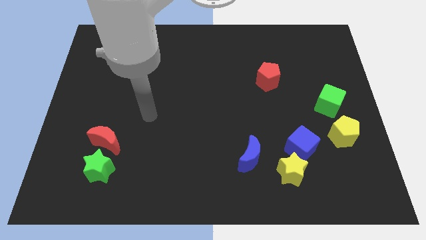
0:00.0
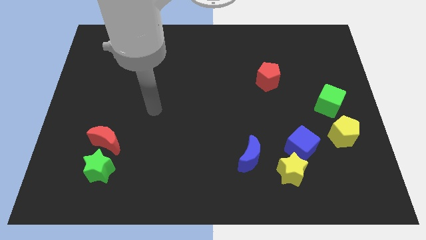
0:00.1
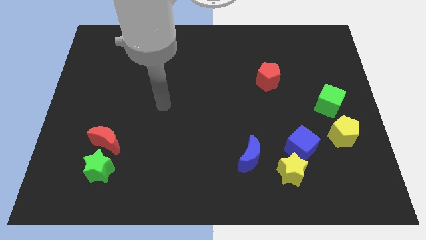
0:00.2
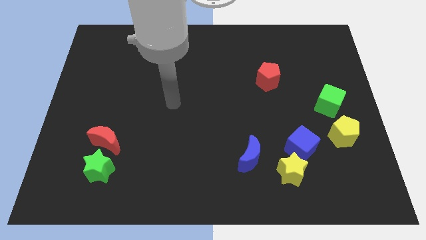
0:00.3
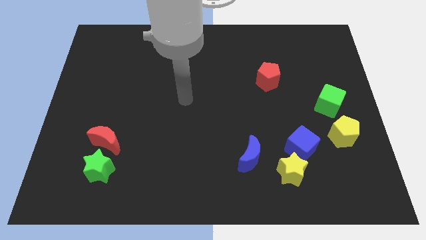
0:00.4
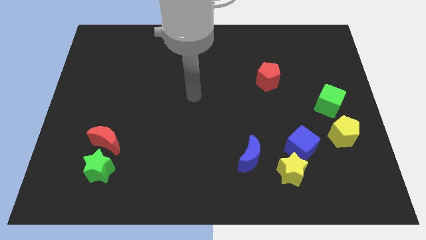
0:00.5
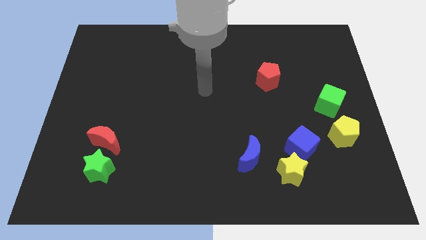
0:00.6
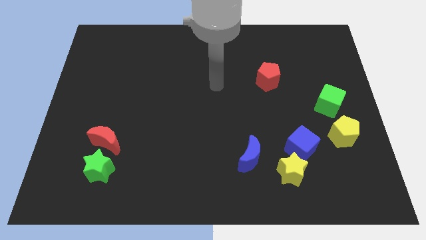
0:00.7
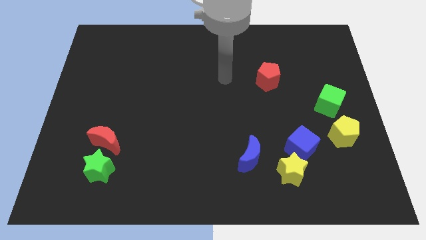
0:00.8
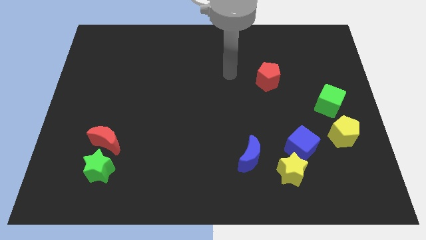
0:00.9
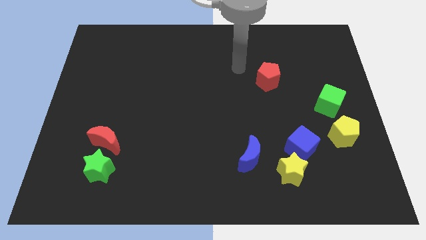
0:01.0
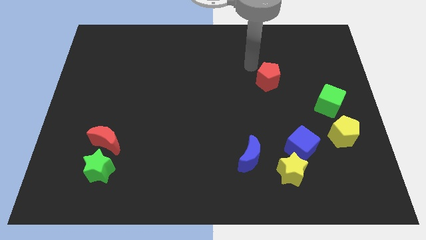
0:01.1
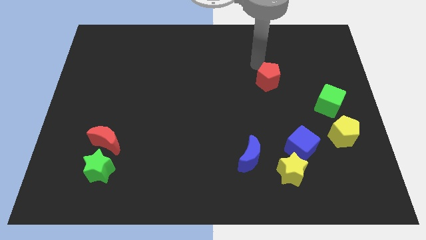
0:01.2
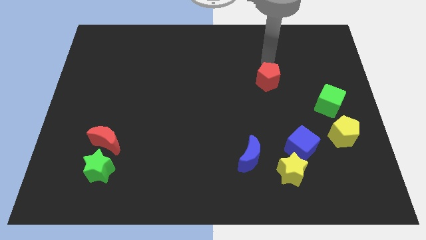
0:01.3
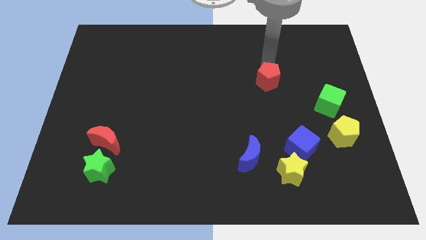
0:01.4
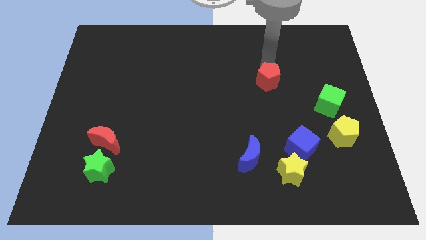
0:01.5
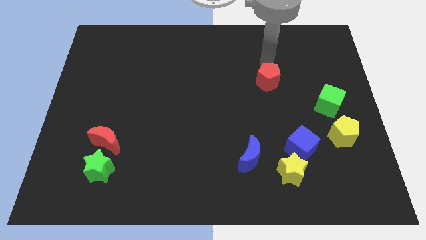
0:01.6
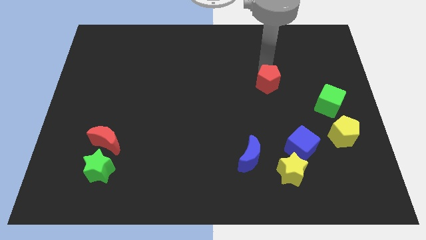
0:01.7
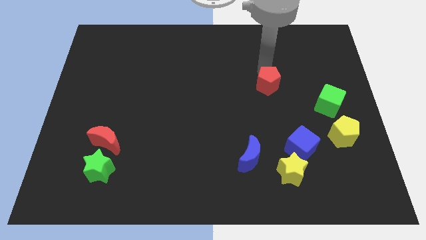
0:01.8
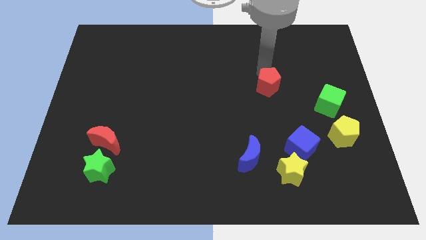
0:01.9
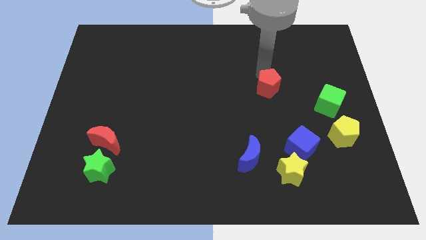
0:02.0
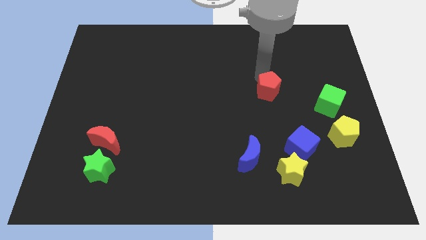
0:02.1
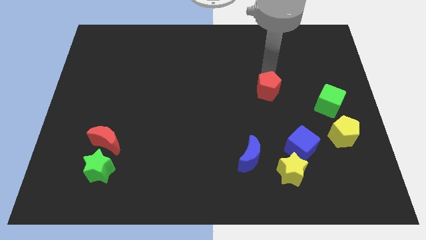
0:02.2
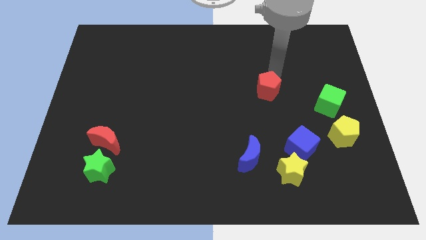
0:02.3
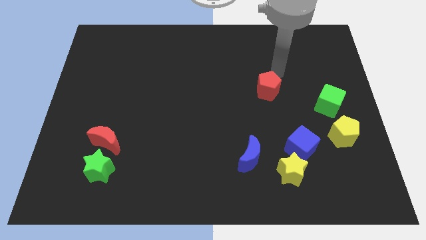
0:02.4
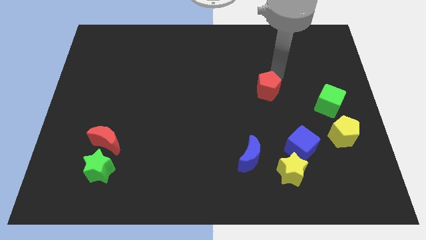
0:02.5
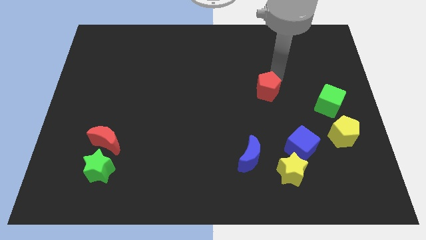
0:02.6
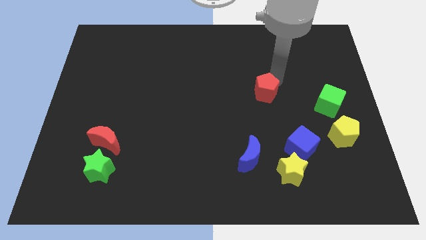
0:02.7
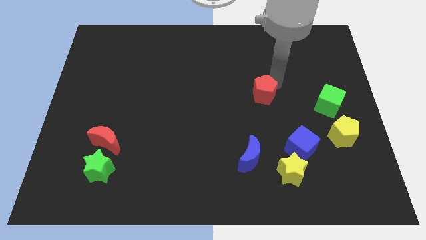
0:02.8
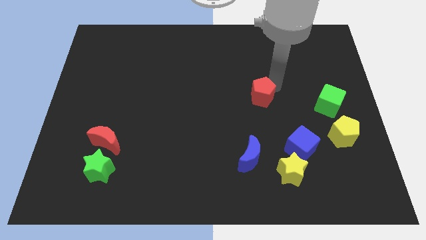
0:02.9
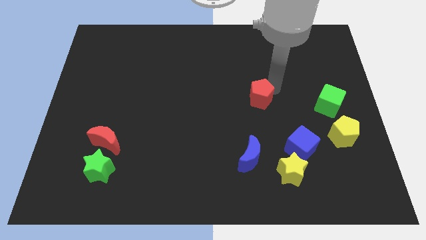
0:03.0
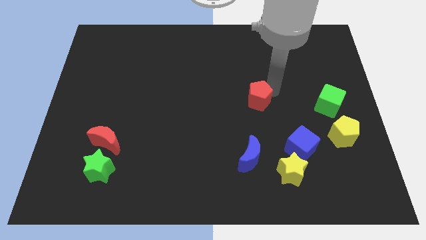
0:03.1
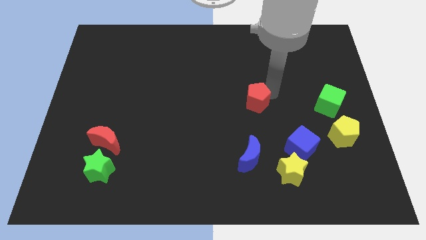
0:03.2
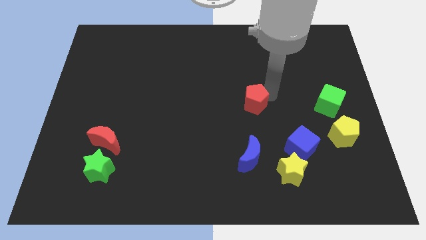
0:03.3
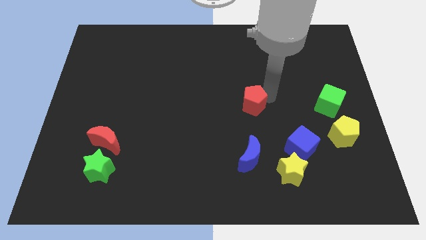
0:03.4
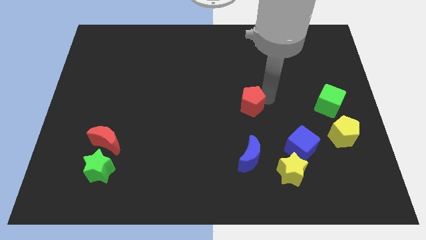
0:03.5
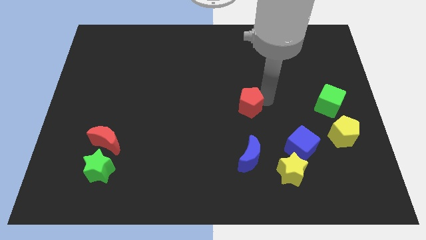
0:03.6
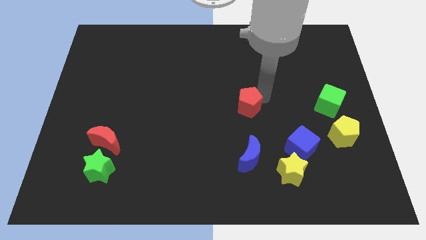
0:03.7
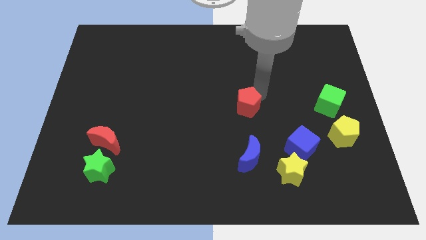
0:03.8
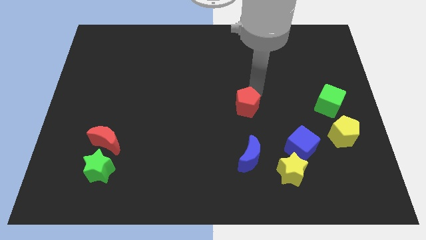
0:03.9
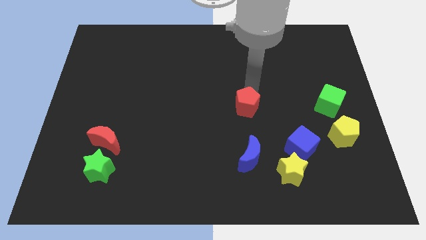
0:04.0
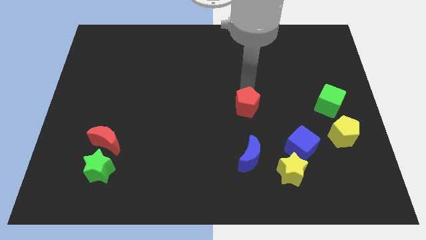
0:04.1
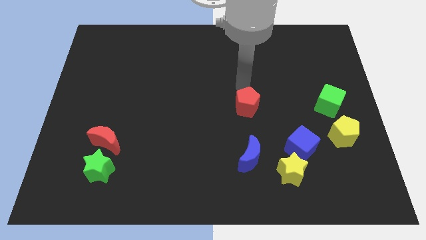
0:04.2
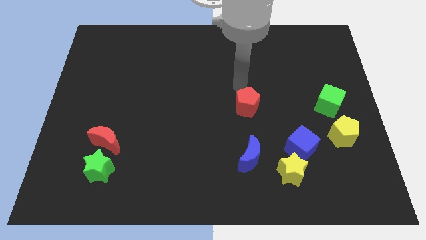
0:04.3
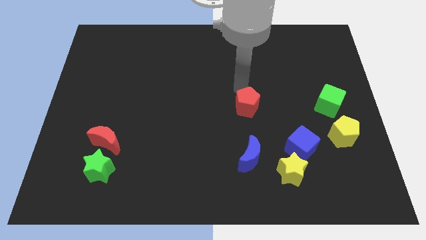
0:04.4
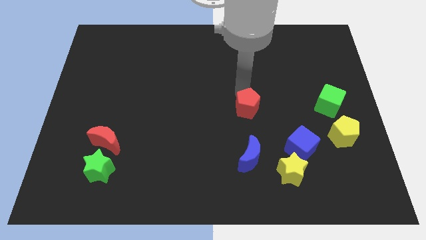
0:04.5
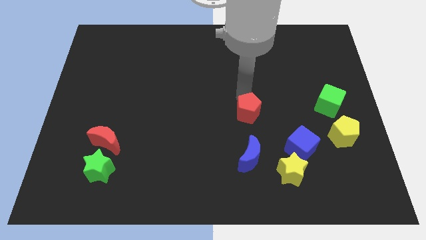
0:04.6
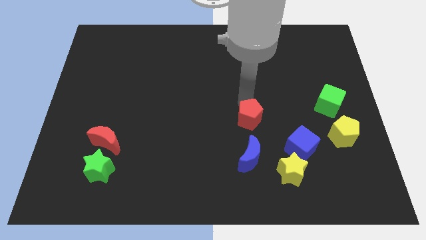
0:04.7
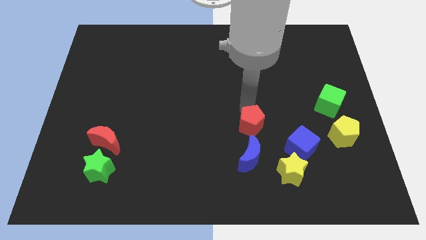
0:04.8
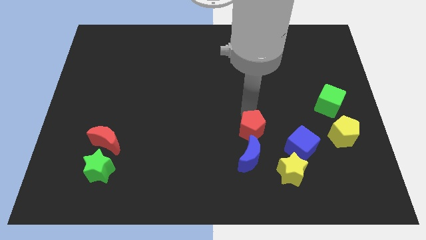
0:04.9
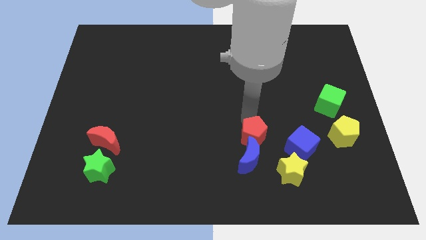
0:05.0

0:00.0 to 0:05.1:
push the red pentagon to the top left of the yellow star

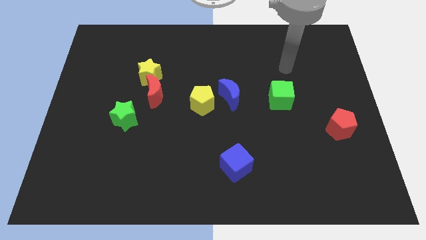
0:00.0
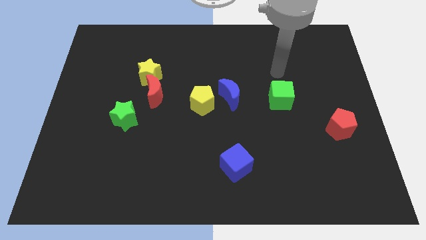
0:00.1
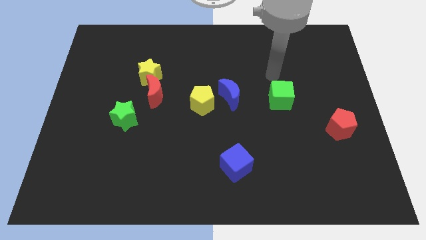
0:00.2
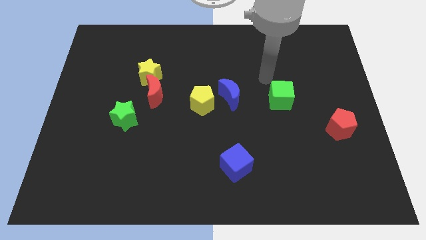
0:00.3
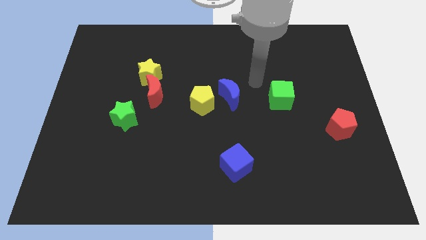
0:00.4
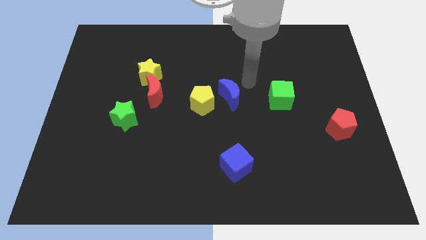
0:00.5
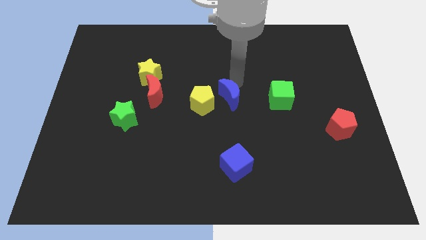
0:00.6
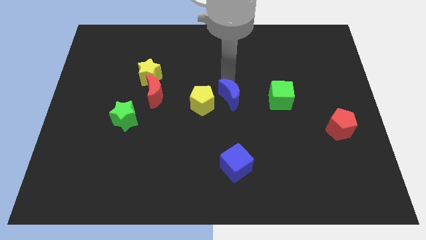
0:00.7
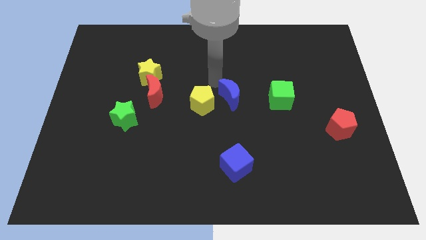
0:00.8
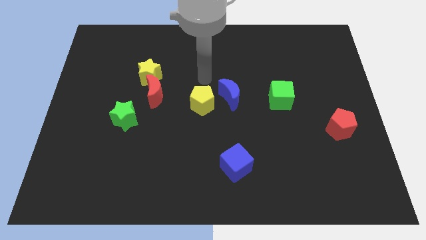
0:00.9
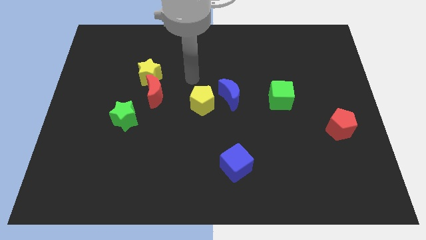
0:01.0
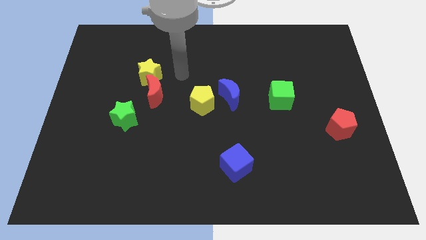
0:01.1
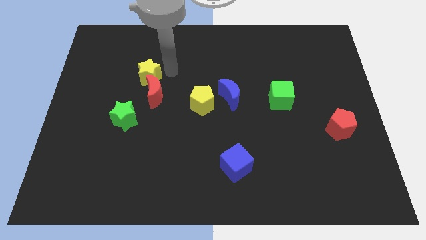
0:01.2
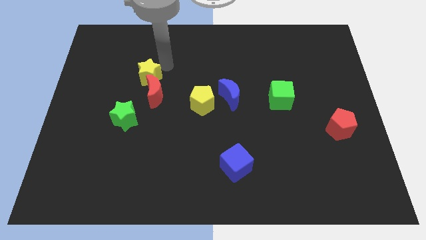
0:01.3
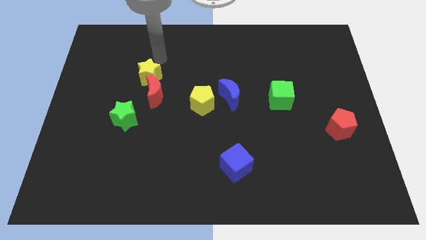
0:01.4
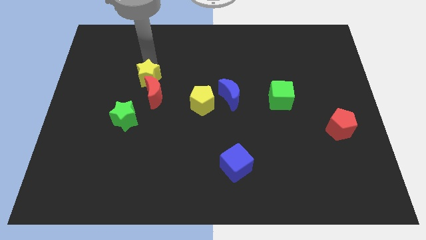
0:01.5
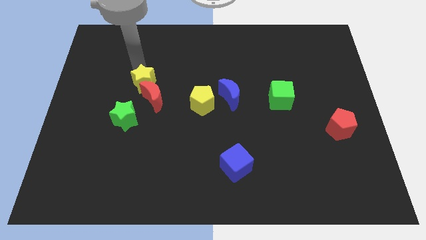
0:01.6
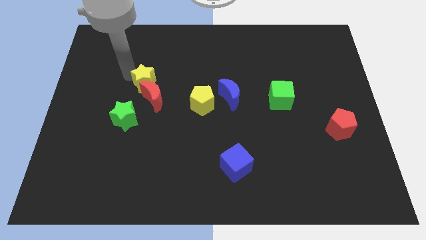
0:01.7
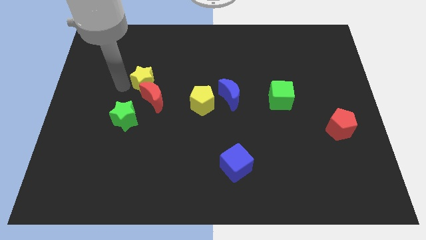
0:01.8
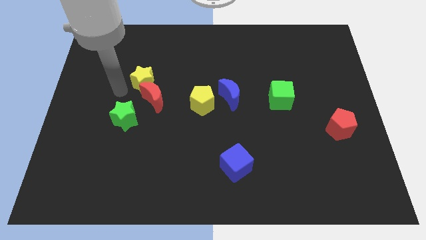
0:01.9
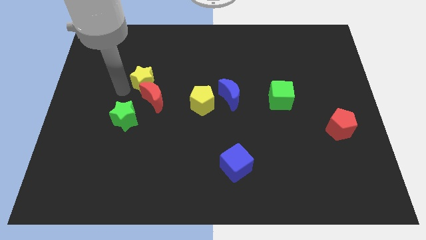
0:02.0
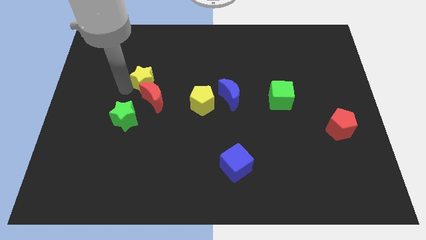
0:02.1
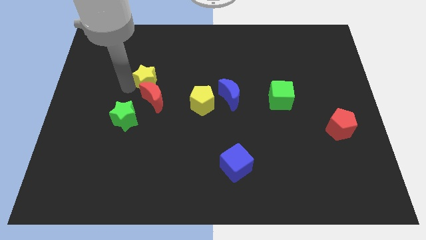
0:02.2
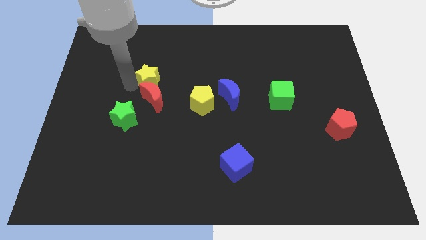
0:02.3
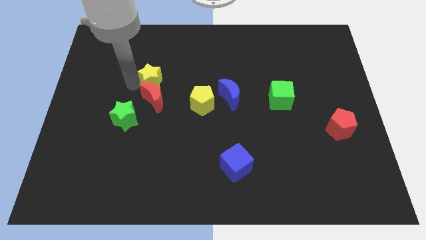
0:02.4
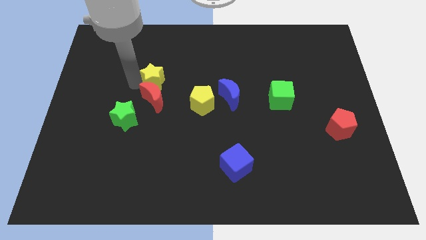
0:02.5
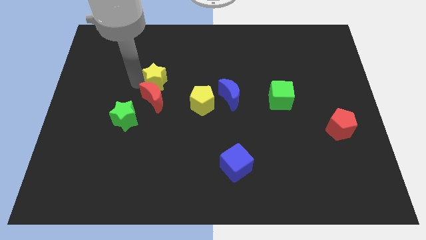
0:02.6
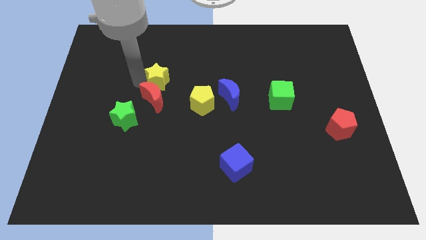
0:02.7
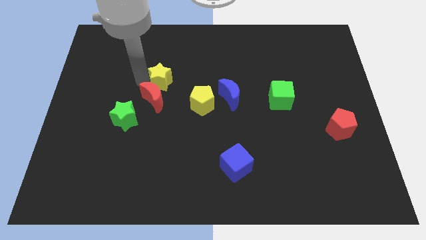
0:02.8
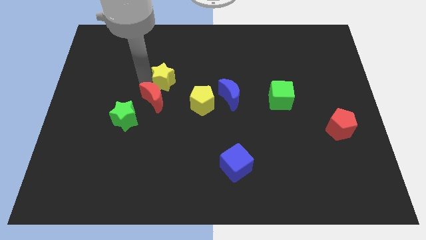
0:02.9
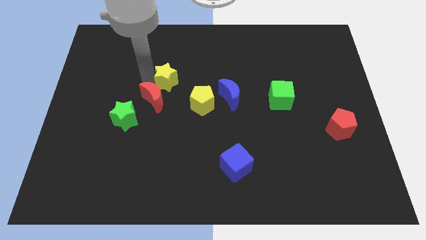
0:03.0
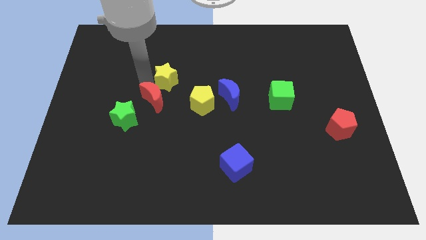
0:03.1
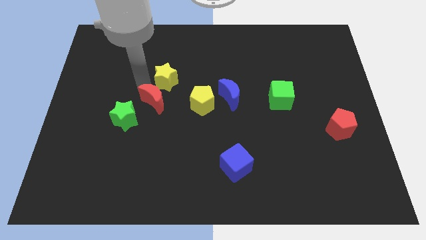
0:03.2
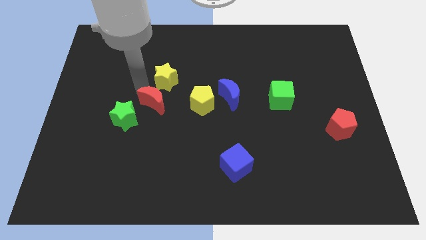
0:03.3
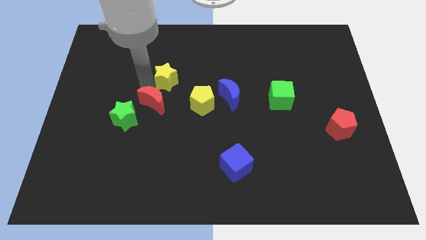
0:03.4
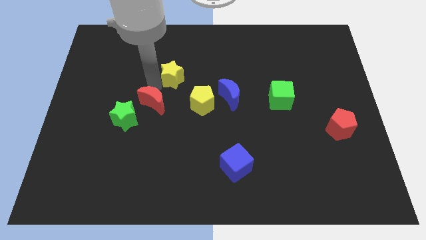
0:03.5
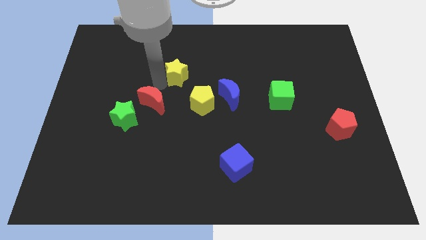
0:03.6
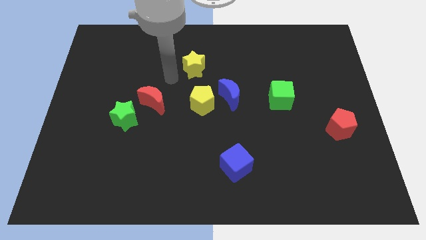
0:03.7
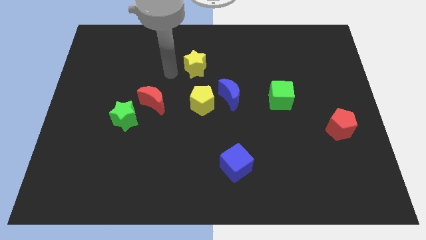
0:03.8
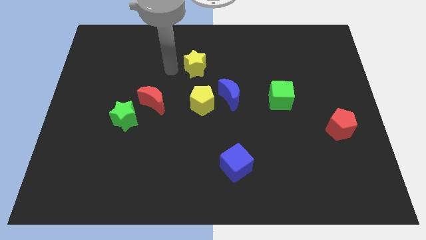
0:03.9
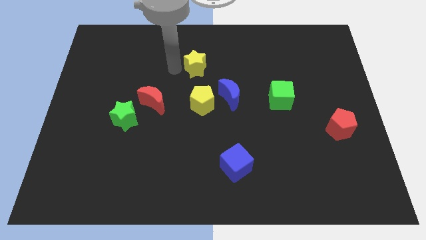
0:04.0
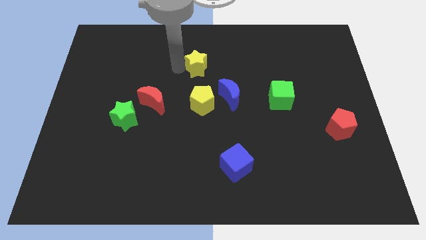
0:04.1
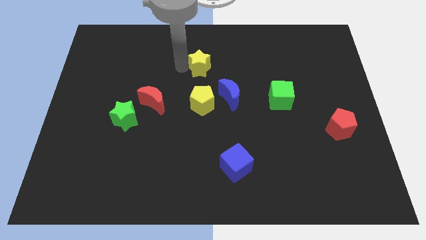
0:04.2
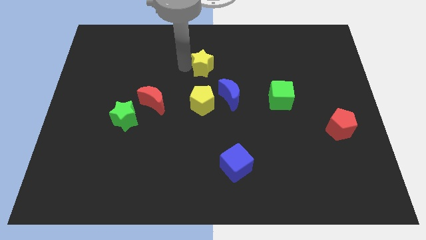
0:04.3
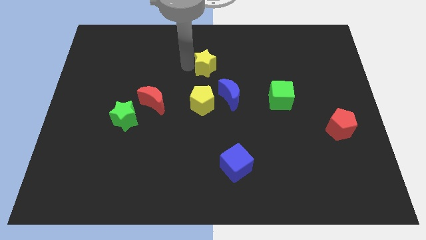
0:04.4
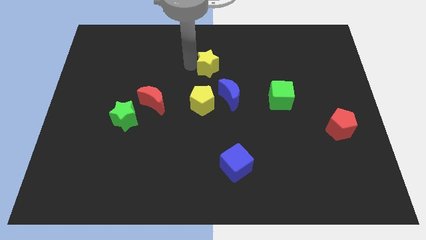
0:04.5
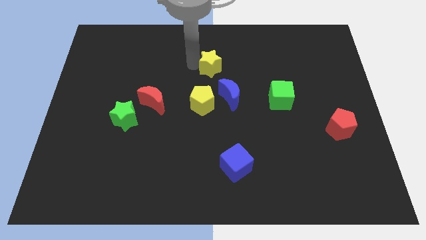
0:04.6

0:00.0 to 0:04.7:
push the yellow star to the top side of the blue moon
